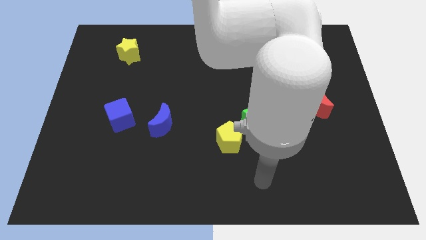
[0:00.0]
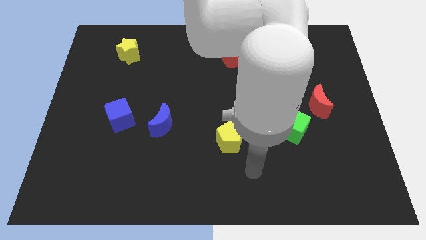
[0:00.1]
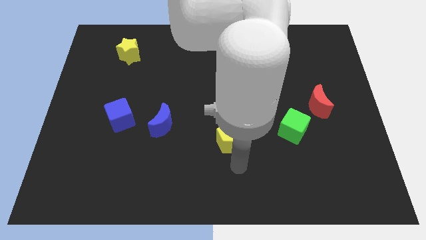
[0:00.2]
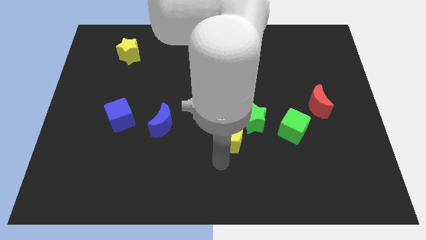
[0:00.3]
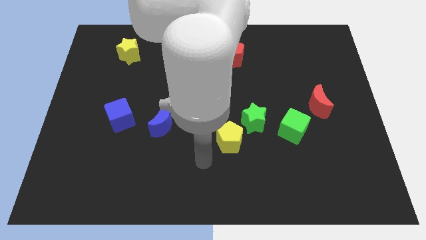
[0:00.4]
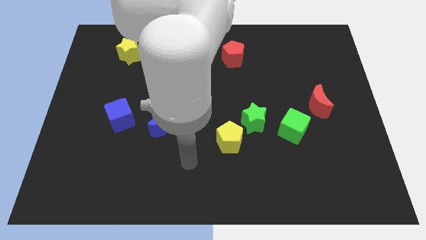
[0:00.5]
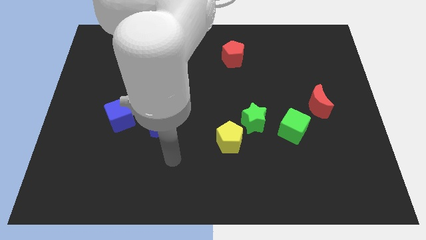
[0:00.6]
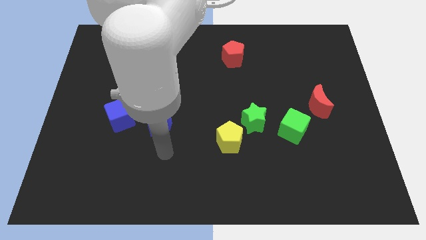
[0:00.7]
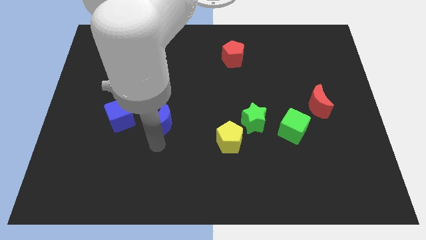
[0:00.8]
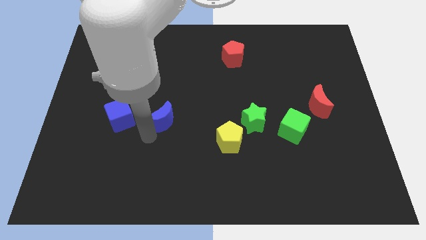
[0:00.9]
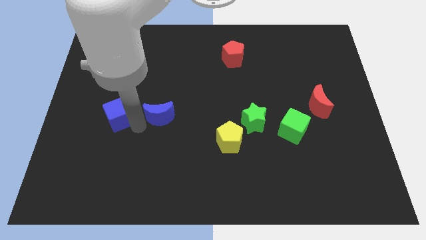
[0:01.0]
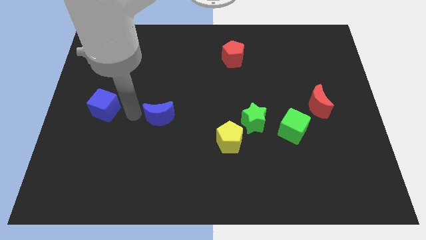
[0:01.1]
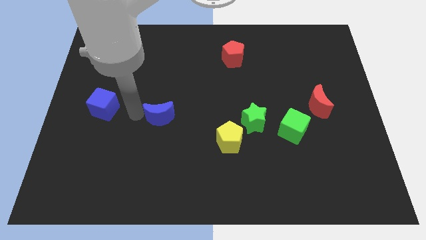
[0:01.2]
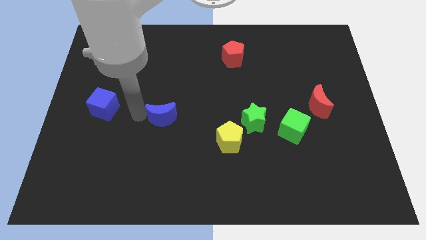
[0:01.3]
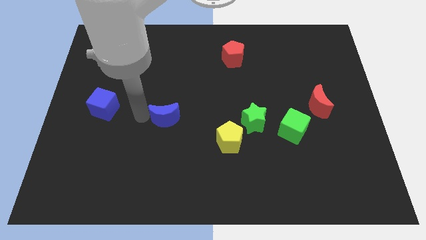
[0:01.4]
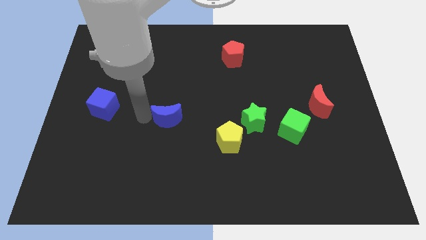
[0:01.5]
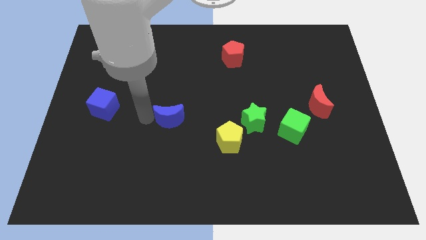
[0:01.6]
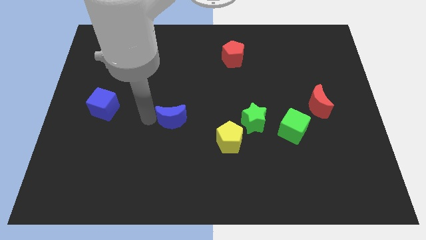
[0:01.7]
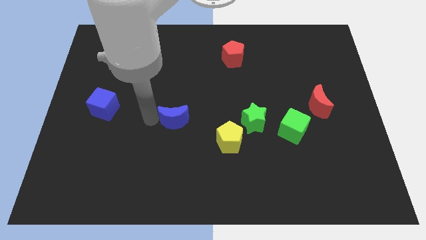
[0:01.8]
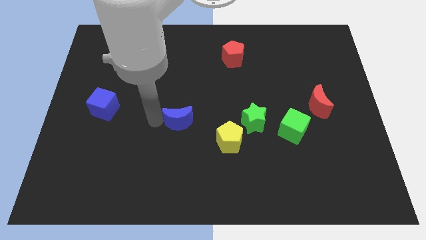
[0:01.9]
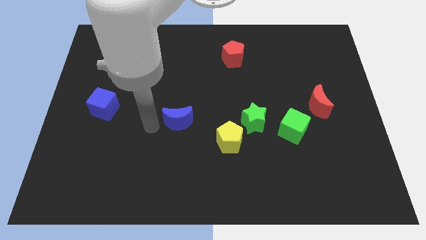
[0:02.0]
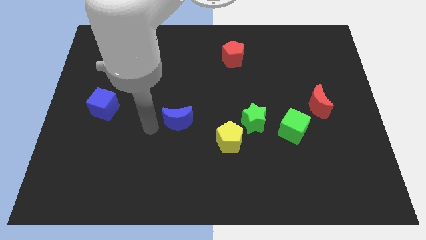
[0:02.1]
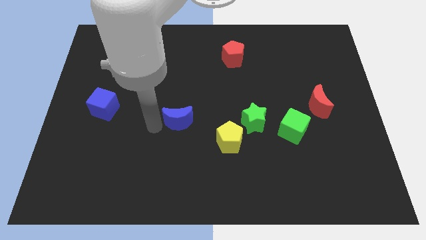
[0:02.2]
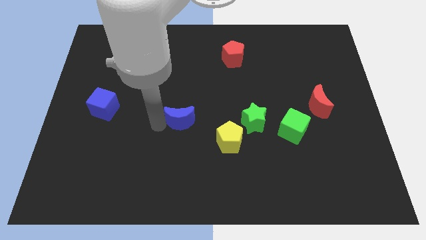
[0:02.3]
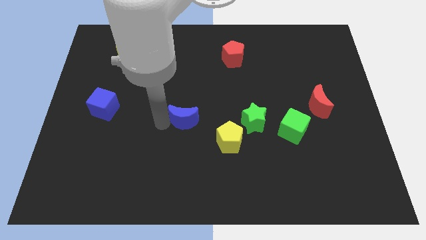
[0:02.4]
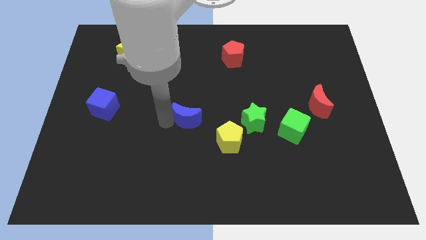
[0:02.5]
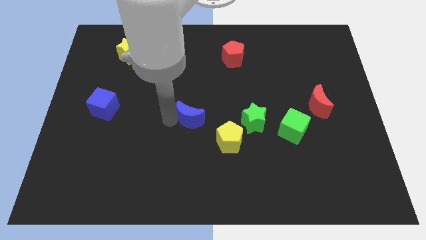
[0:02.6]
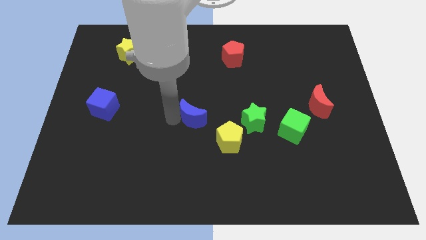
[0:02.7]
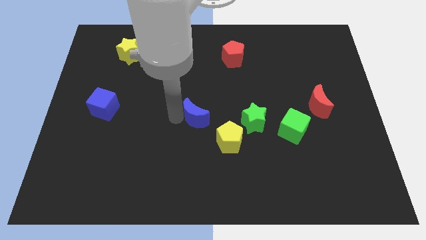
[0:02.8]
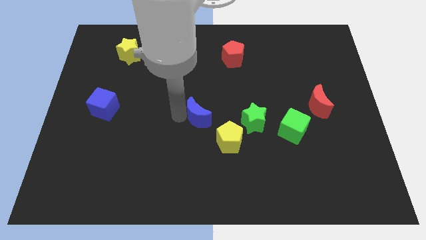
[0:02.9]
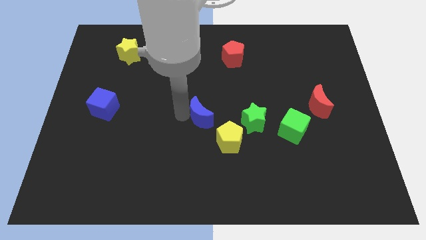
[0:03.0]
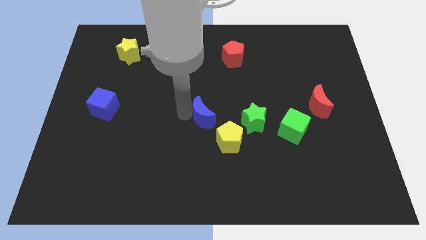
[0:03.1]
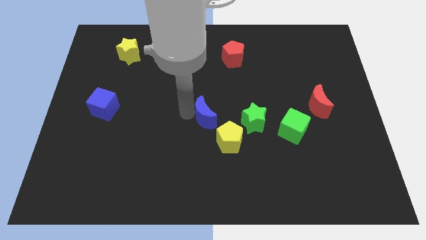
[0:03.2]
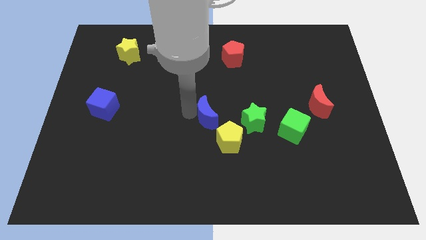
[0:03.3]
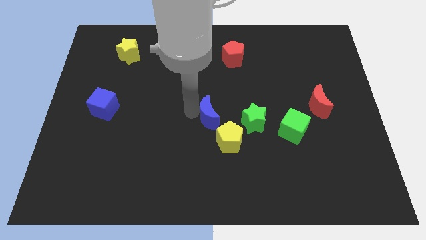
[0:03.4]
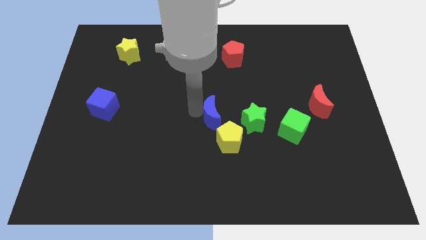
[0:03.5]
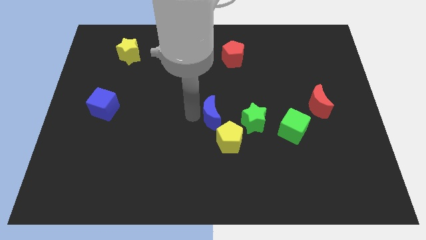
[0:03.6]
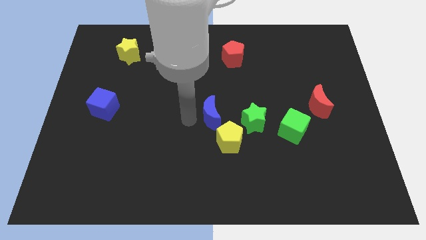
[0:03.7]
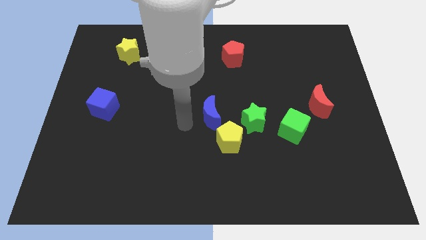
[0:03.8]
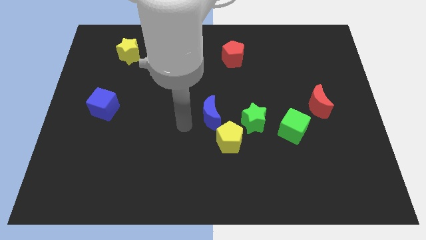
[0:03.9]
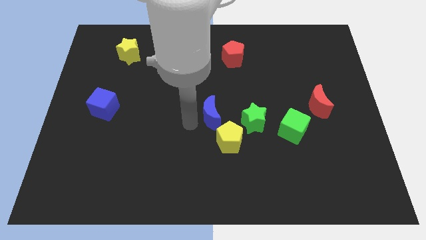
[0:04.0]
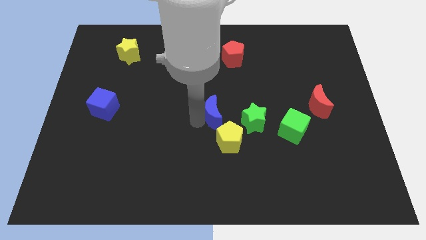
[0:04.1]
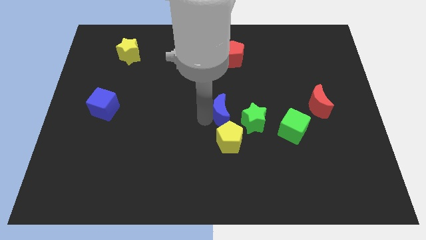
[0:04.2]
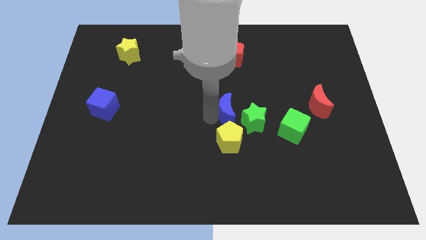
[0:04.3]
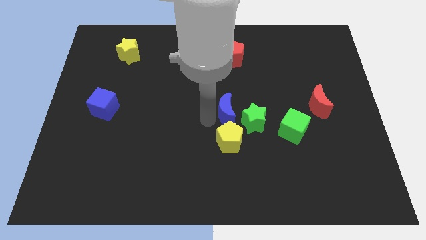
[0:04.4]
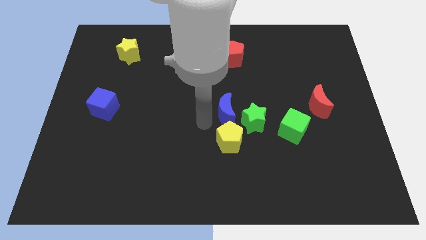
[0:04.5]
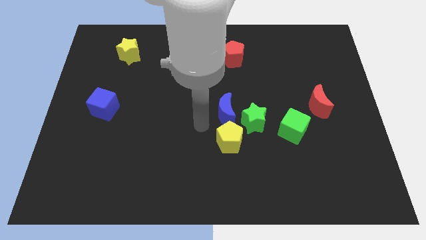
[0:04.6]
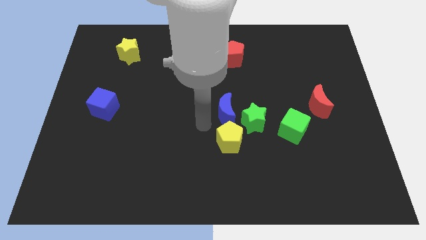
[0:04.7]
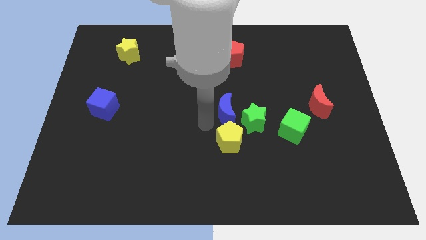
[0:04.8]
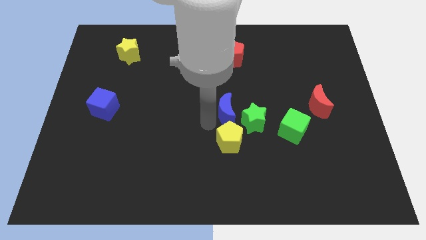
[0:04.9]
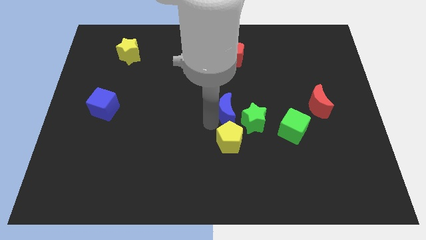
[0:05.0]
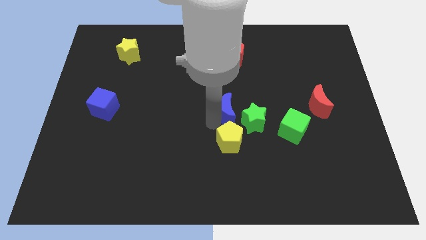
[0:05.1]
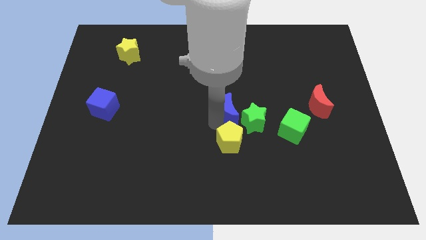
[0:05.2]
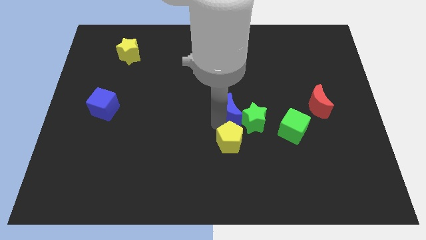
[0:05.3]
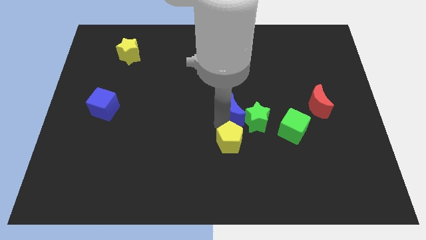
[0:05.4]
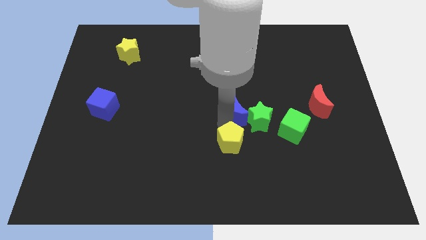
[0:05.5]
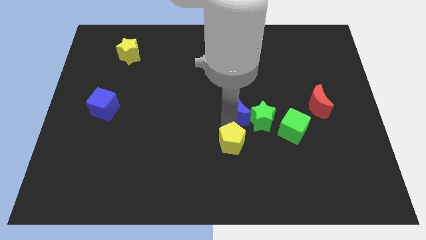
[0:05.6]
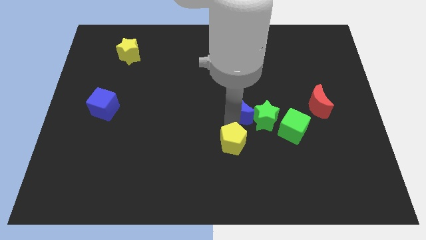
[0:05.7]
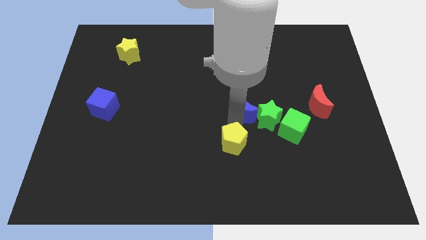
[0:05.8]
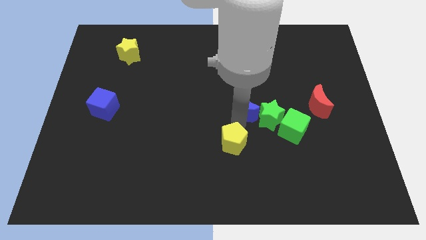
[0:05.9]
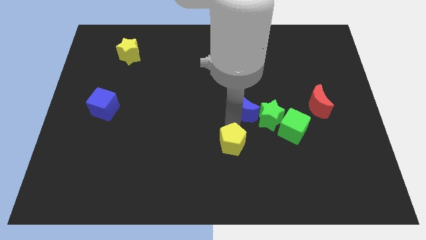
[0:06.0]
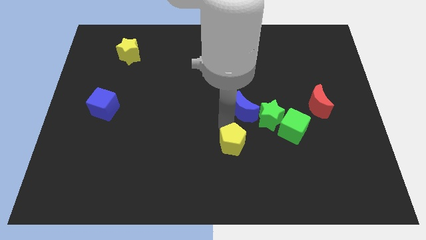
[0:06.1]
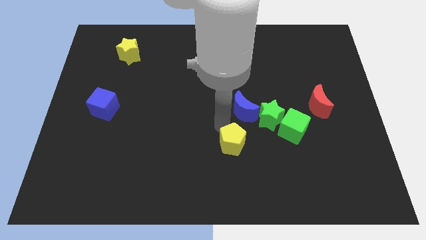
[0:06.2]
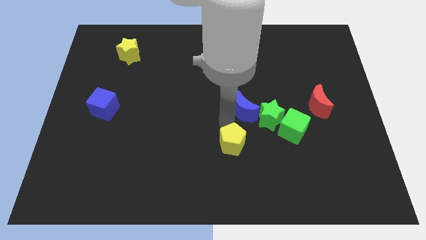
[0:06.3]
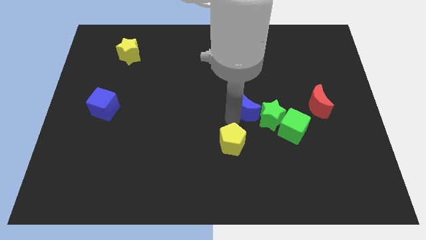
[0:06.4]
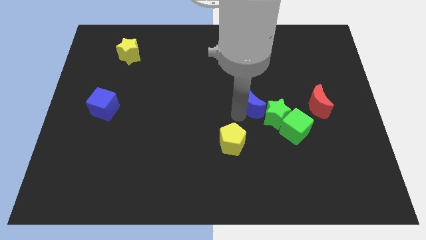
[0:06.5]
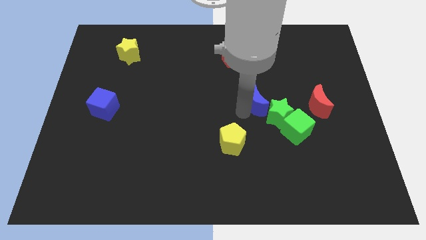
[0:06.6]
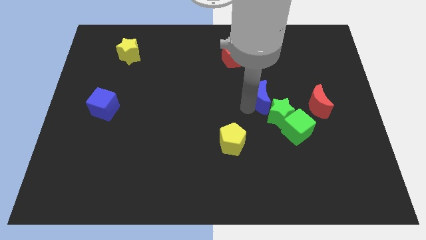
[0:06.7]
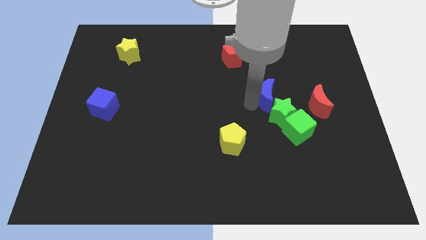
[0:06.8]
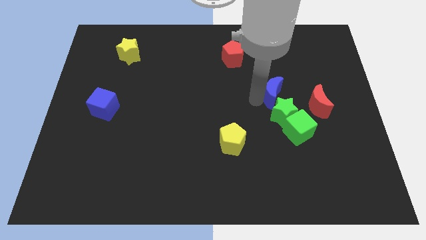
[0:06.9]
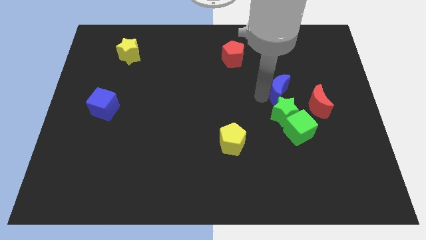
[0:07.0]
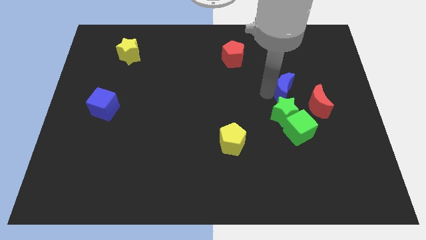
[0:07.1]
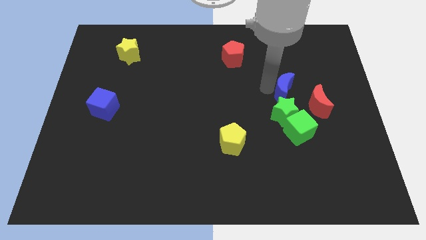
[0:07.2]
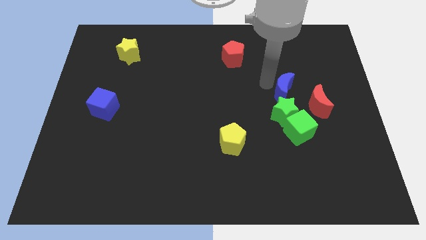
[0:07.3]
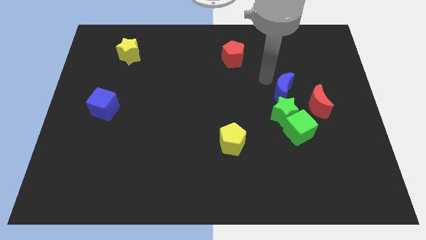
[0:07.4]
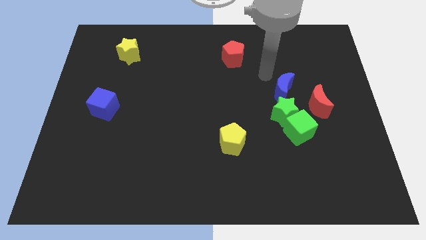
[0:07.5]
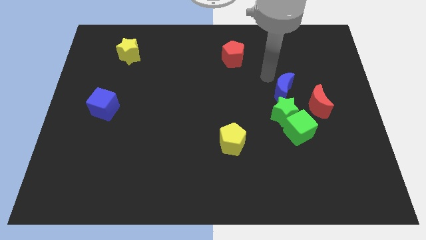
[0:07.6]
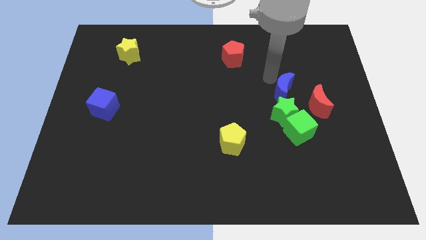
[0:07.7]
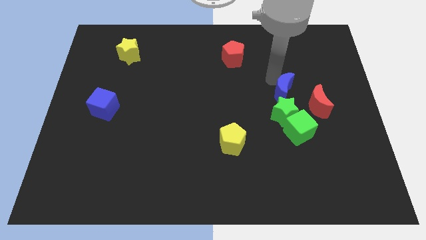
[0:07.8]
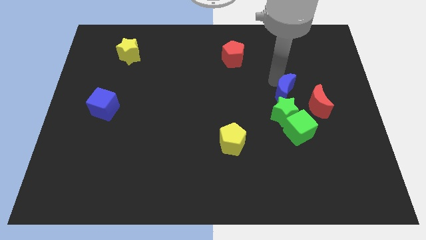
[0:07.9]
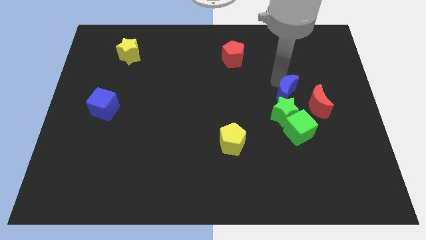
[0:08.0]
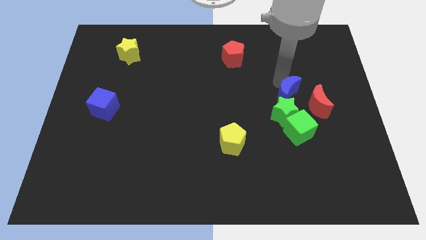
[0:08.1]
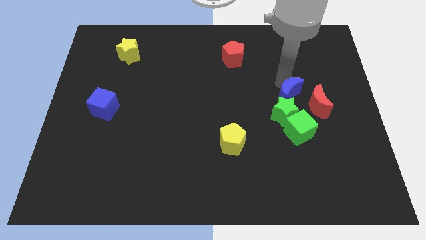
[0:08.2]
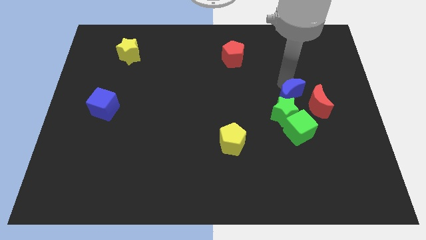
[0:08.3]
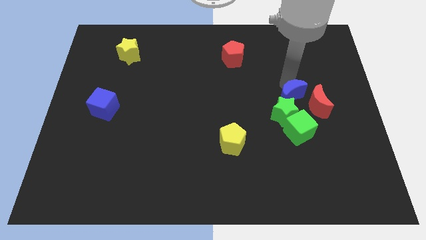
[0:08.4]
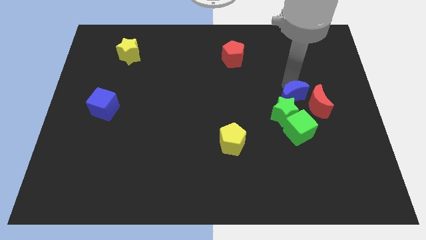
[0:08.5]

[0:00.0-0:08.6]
put the blue moon next to the red moon
